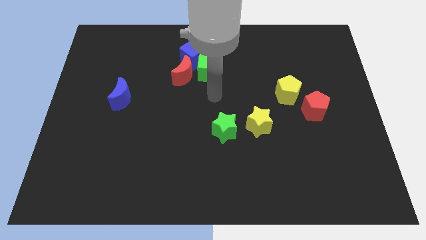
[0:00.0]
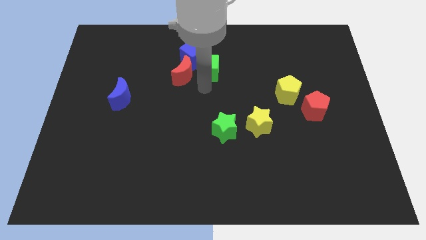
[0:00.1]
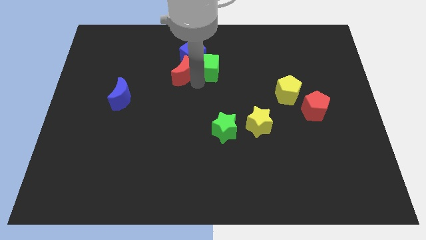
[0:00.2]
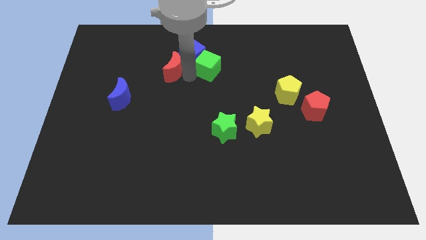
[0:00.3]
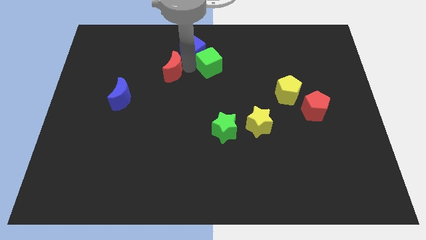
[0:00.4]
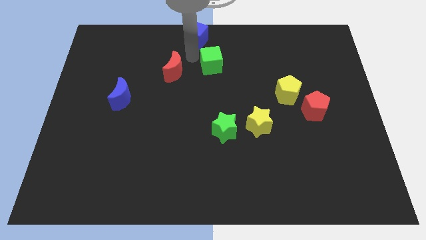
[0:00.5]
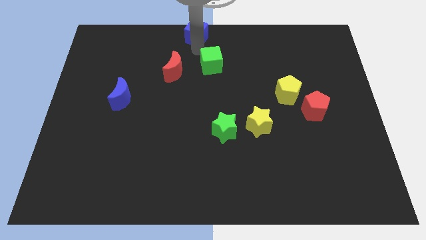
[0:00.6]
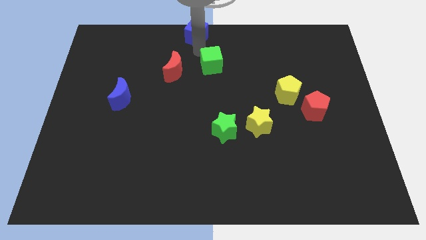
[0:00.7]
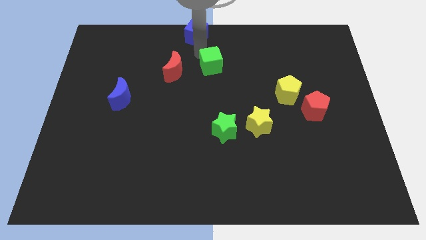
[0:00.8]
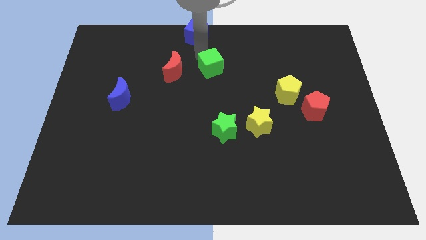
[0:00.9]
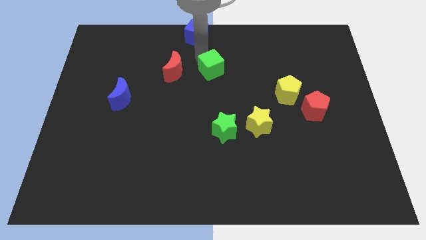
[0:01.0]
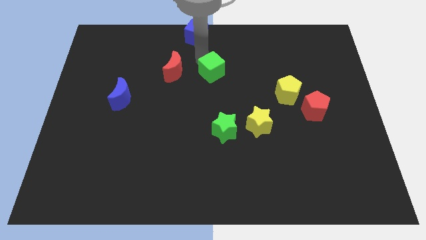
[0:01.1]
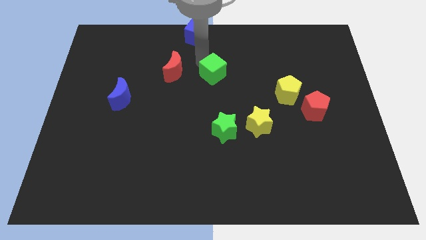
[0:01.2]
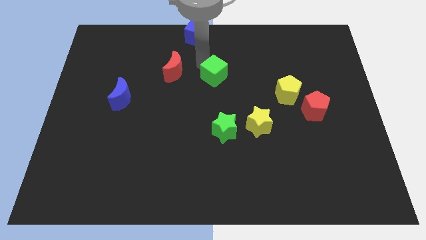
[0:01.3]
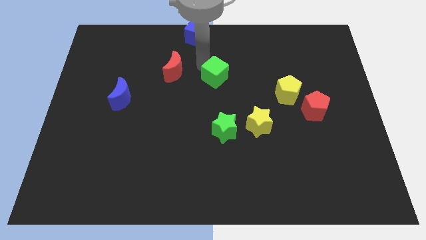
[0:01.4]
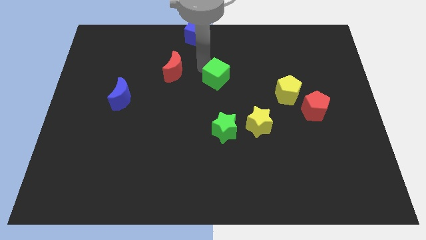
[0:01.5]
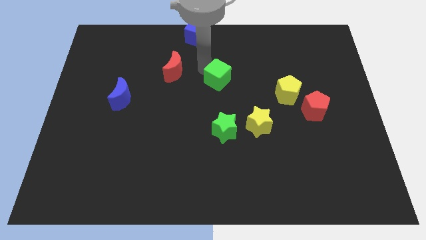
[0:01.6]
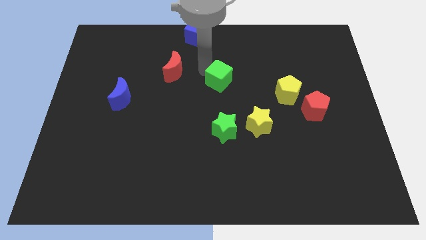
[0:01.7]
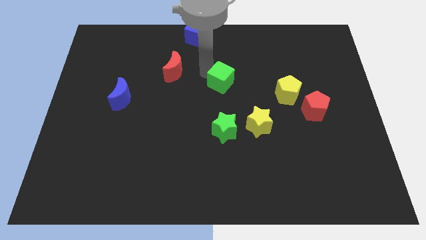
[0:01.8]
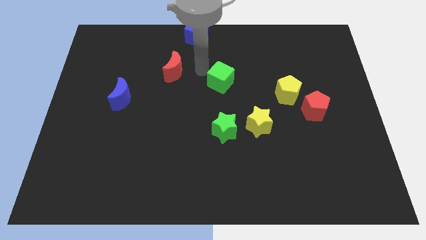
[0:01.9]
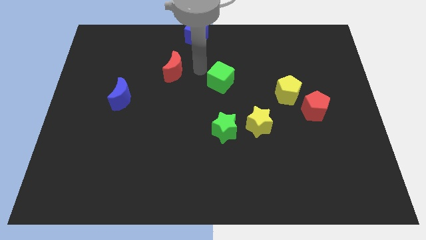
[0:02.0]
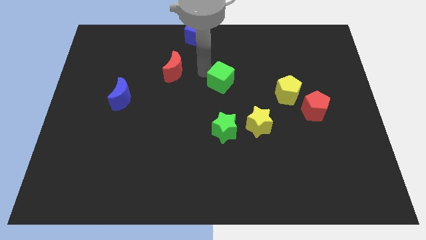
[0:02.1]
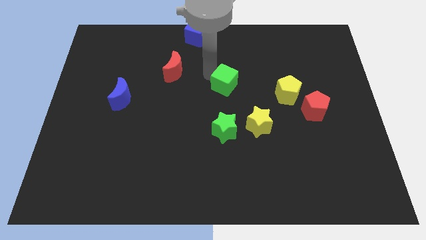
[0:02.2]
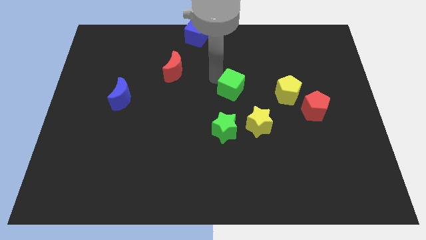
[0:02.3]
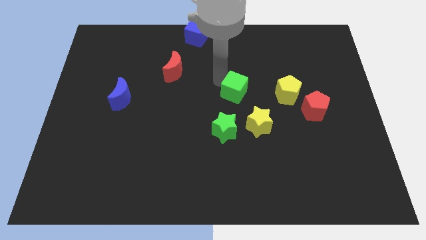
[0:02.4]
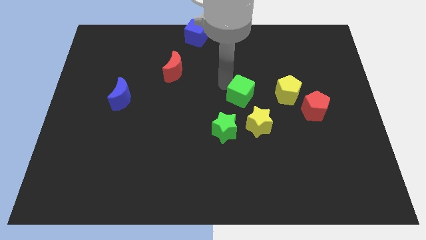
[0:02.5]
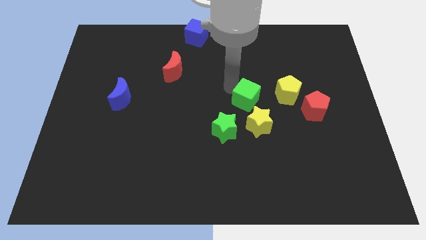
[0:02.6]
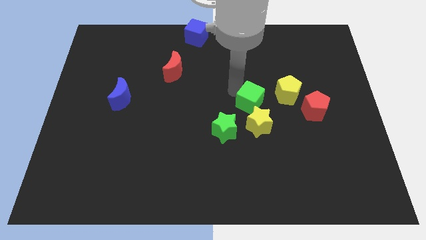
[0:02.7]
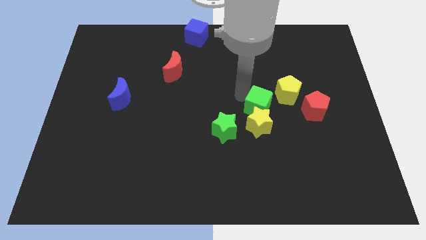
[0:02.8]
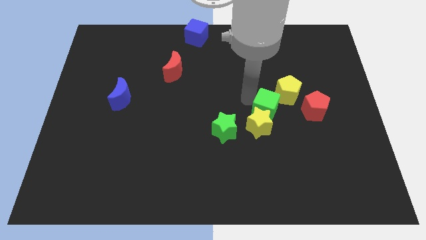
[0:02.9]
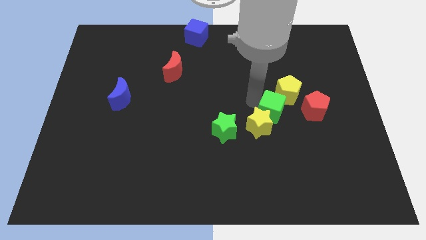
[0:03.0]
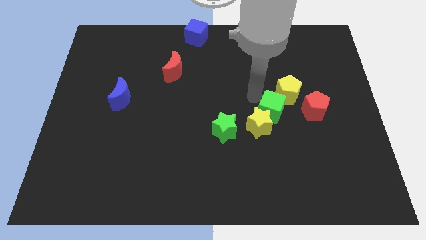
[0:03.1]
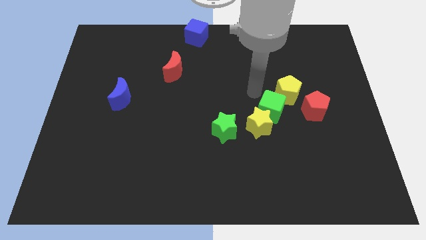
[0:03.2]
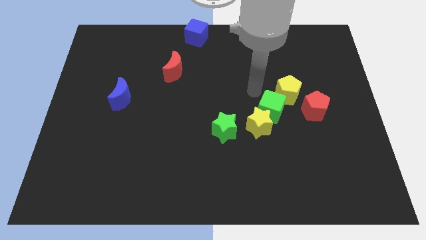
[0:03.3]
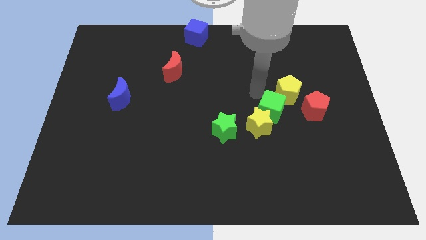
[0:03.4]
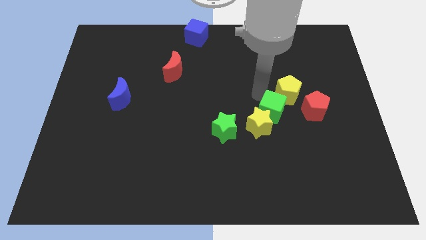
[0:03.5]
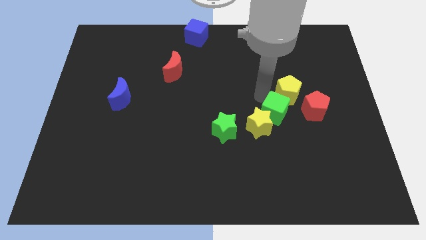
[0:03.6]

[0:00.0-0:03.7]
push the green cube downwards and to the right

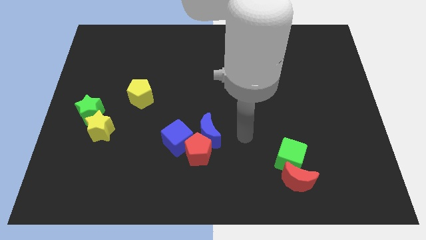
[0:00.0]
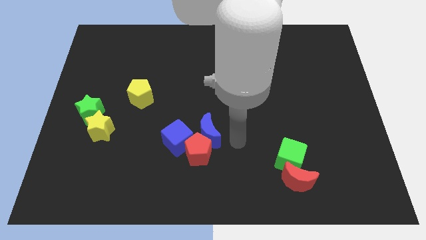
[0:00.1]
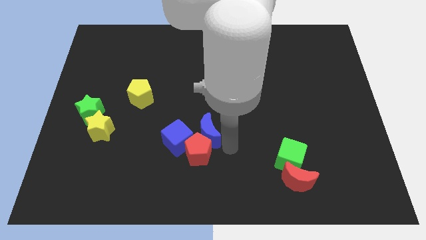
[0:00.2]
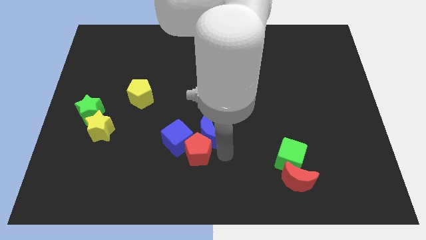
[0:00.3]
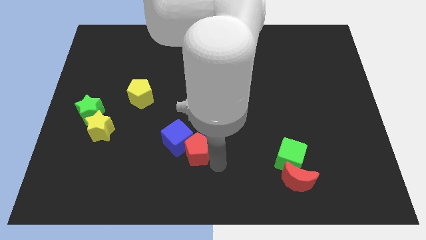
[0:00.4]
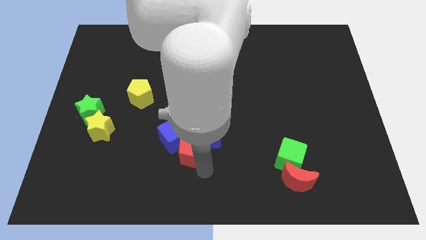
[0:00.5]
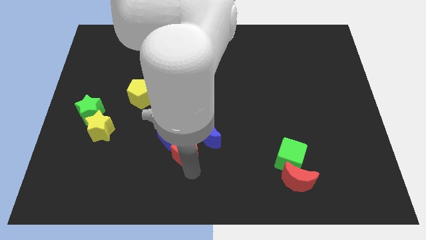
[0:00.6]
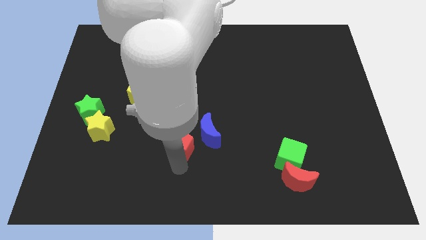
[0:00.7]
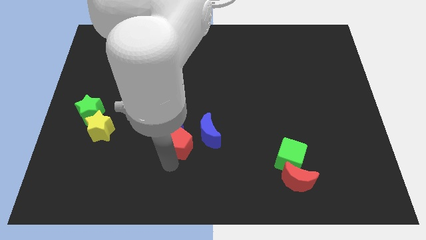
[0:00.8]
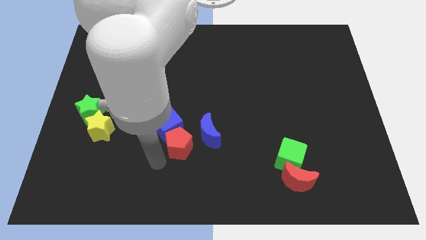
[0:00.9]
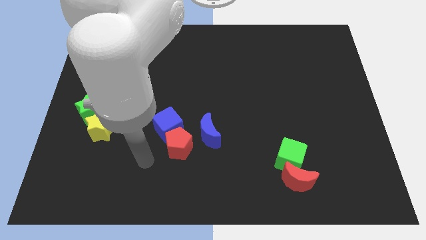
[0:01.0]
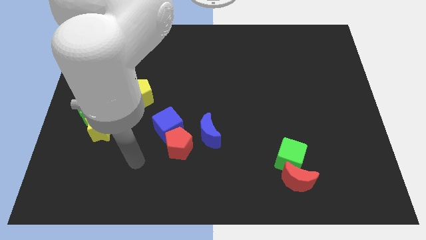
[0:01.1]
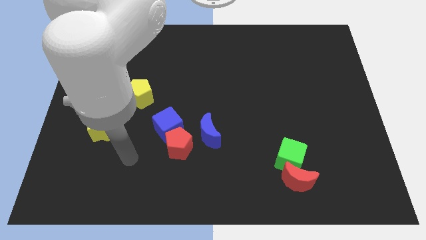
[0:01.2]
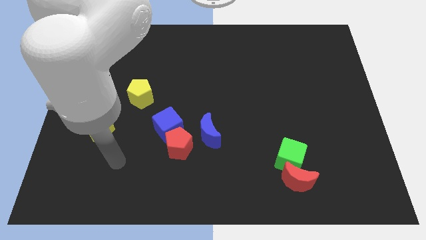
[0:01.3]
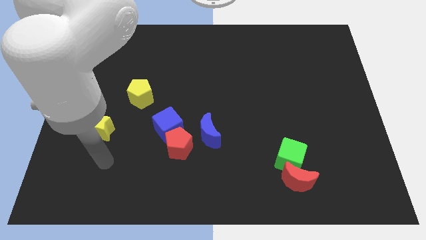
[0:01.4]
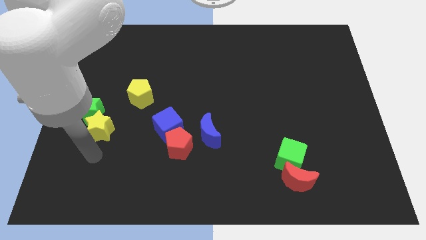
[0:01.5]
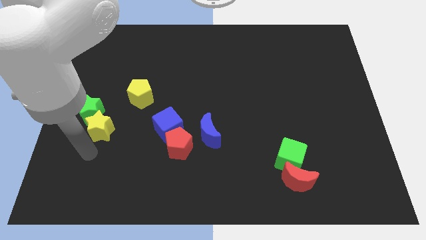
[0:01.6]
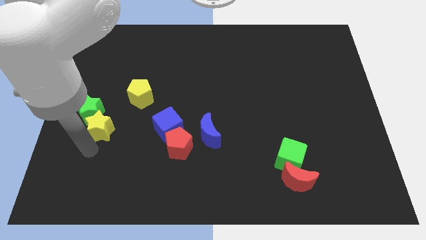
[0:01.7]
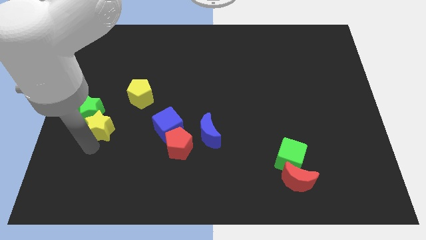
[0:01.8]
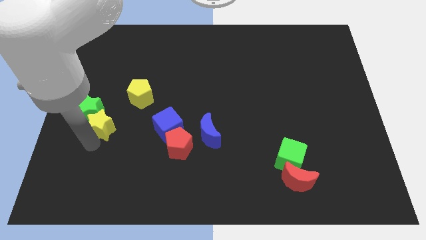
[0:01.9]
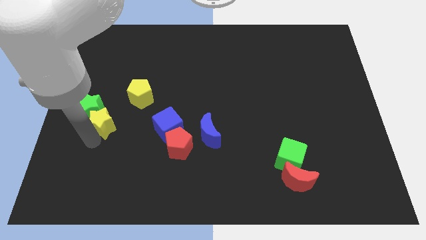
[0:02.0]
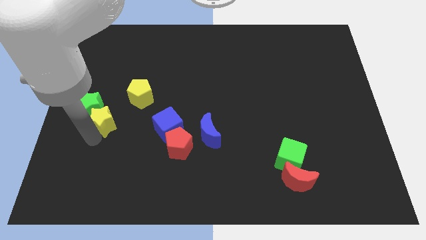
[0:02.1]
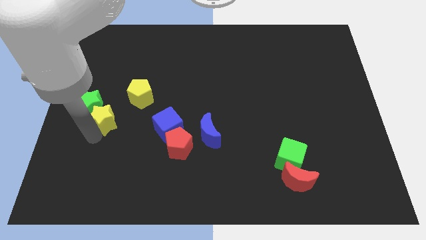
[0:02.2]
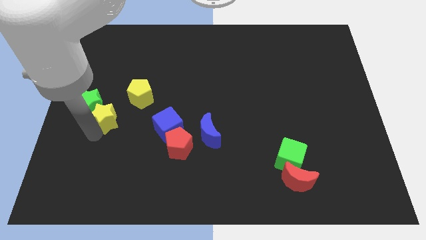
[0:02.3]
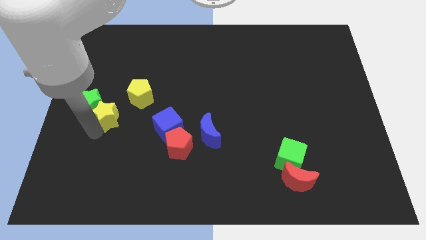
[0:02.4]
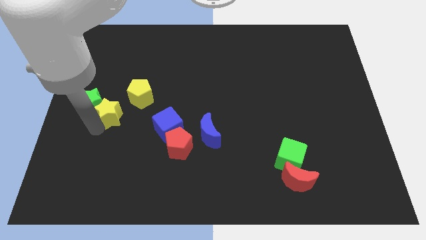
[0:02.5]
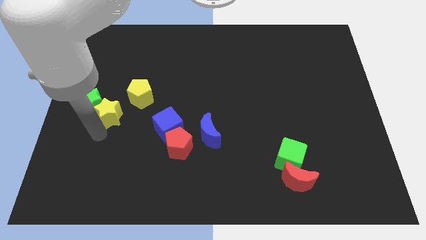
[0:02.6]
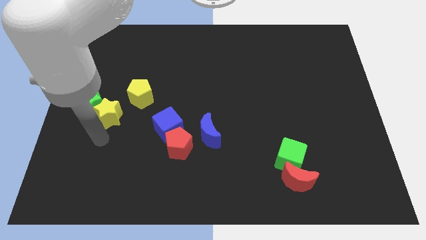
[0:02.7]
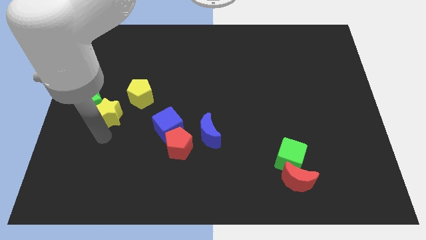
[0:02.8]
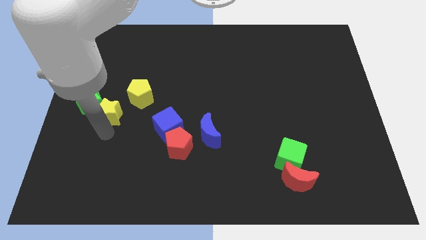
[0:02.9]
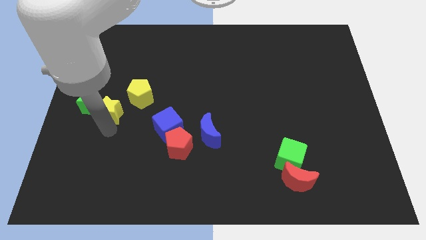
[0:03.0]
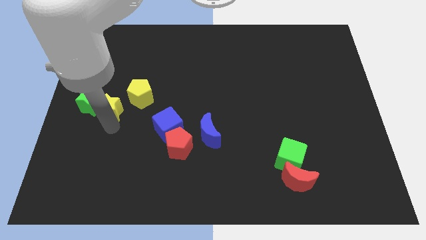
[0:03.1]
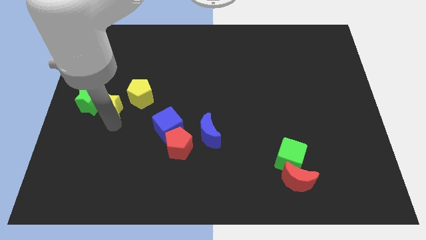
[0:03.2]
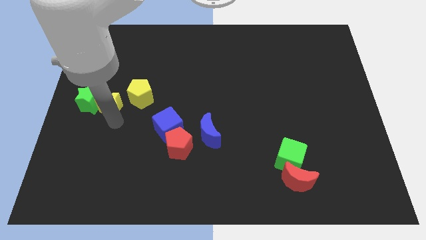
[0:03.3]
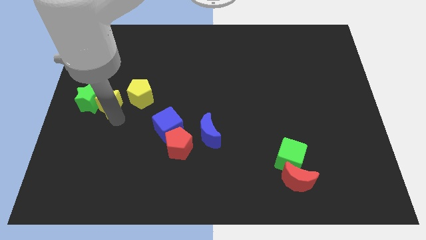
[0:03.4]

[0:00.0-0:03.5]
move the yellow star up slightly

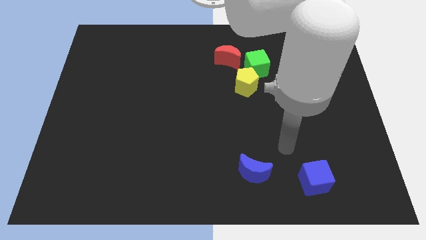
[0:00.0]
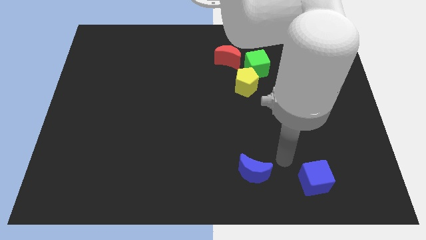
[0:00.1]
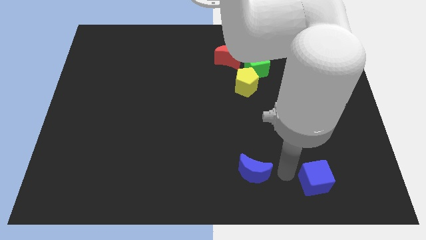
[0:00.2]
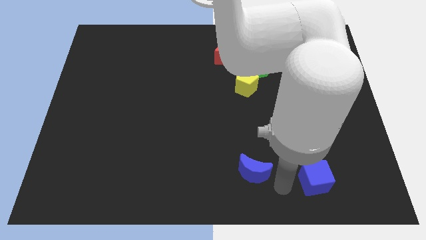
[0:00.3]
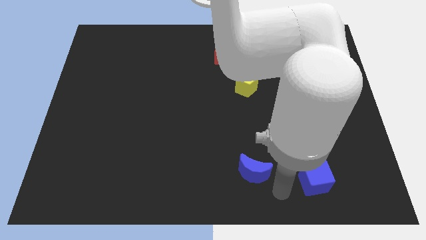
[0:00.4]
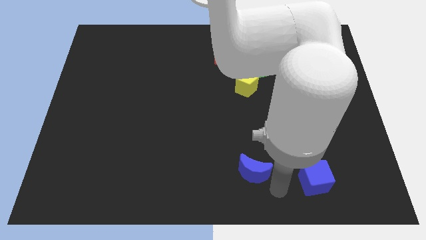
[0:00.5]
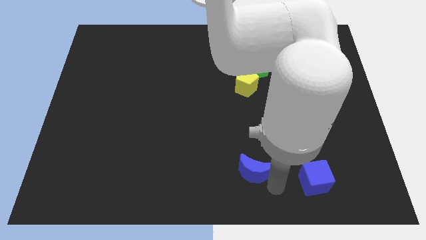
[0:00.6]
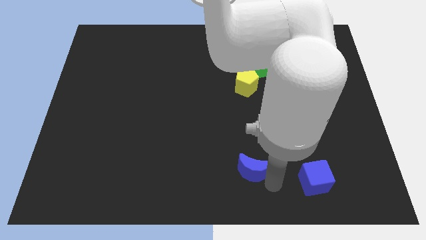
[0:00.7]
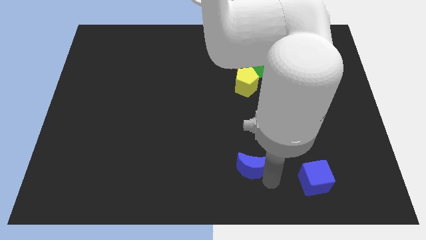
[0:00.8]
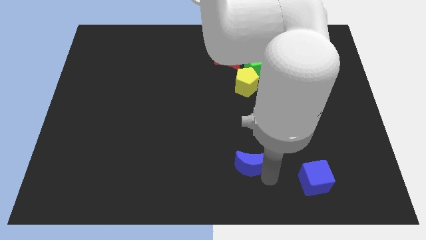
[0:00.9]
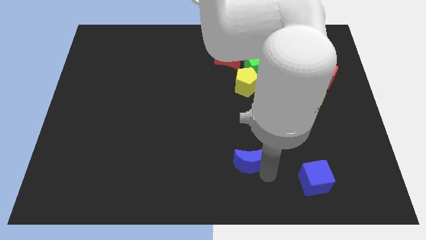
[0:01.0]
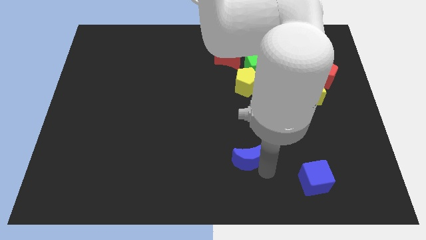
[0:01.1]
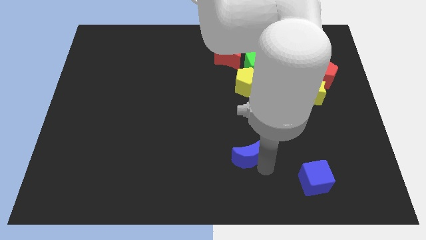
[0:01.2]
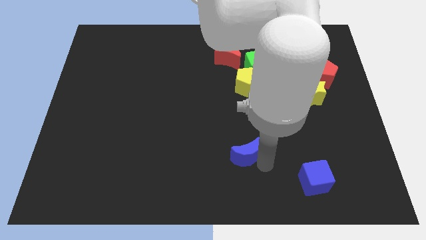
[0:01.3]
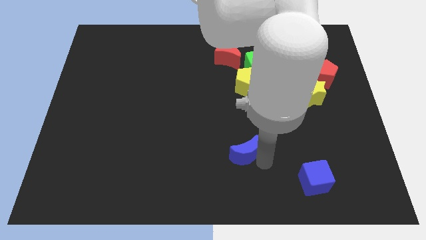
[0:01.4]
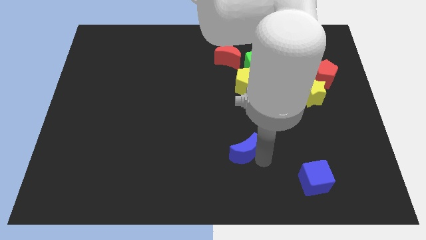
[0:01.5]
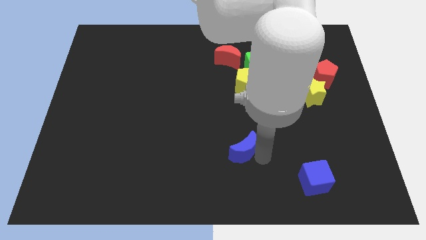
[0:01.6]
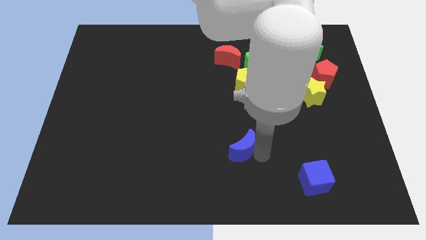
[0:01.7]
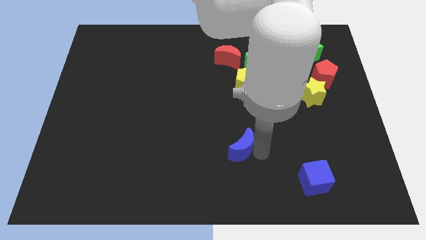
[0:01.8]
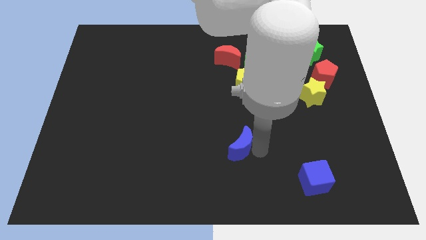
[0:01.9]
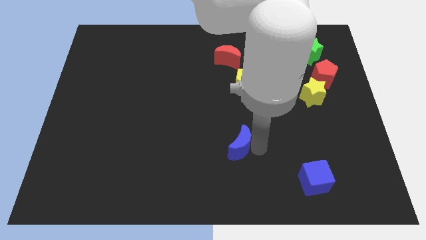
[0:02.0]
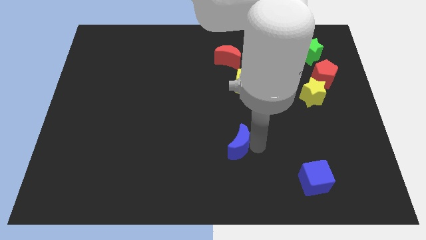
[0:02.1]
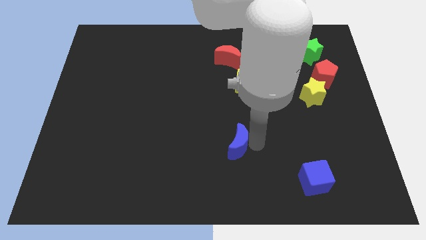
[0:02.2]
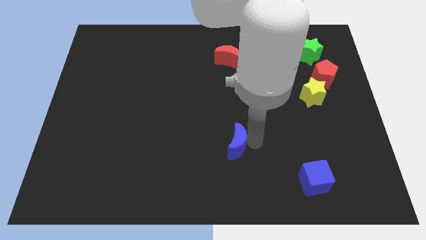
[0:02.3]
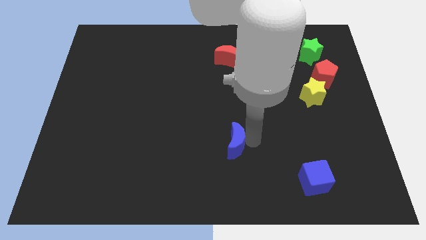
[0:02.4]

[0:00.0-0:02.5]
slightly slide the blue moon up and left
